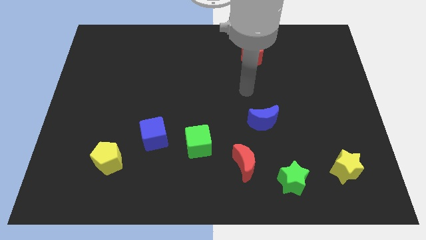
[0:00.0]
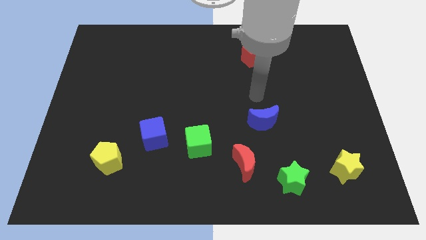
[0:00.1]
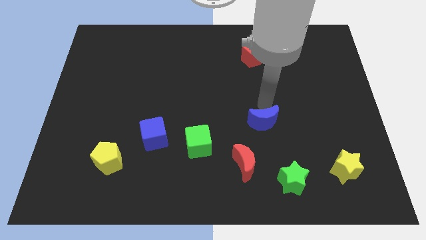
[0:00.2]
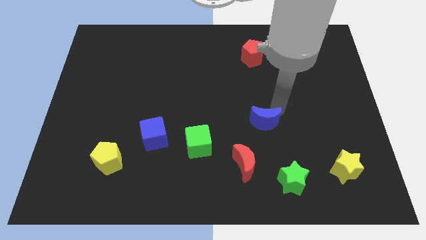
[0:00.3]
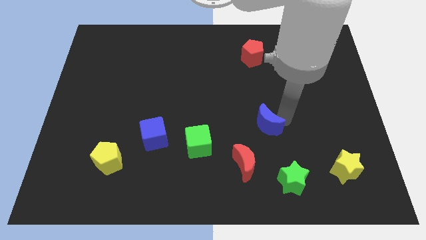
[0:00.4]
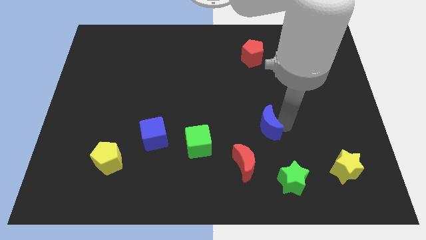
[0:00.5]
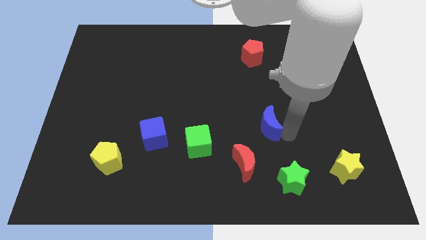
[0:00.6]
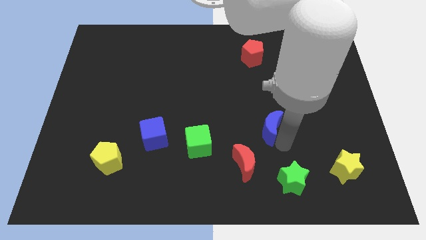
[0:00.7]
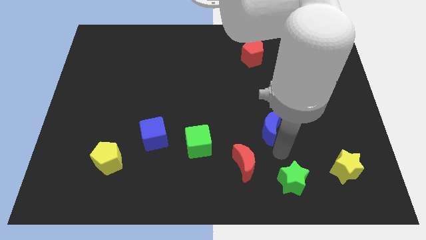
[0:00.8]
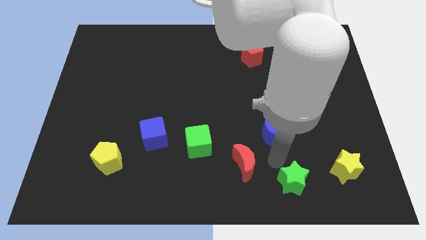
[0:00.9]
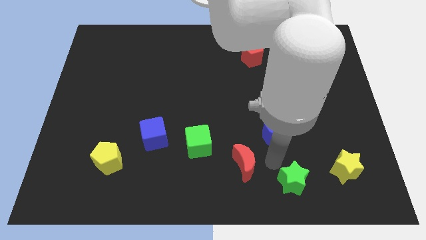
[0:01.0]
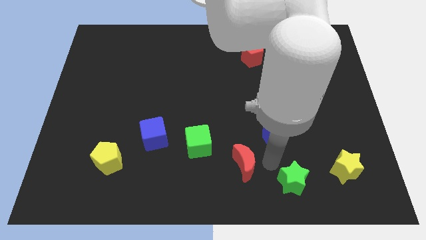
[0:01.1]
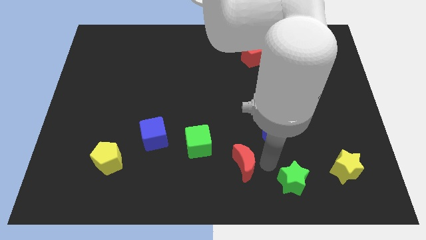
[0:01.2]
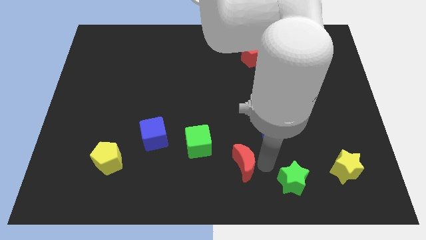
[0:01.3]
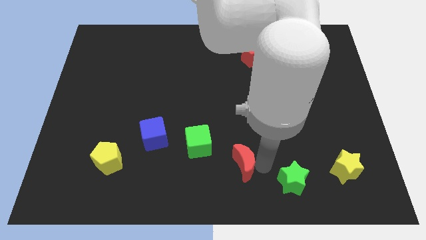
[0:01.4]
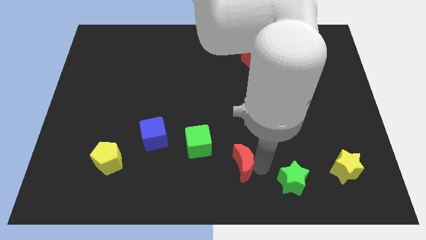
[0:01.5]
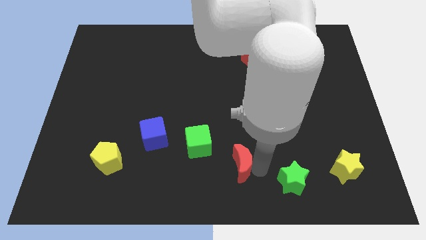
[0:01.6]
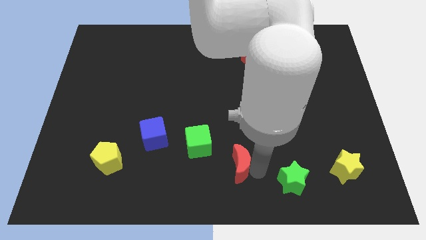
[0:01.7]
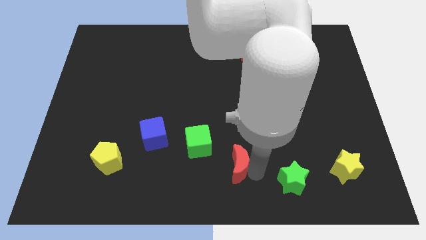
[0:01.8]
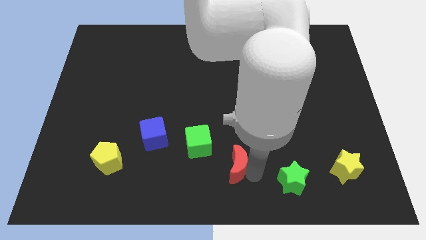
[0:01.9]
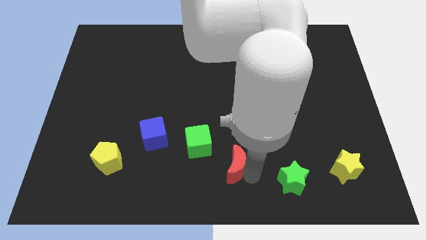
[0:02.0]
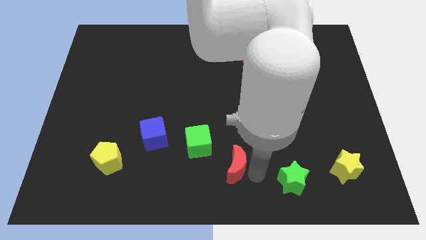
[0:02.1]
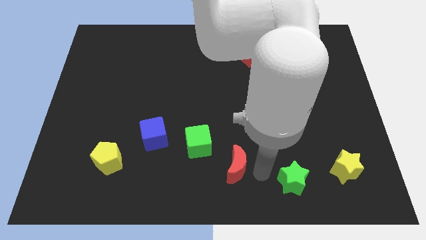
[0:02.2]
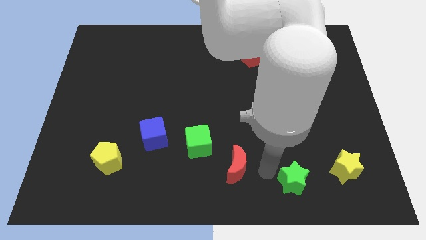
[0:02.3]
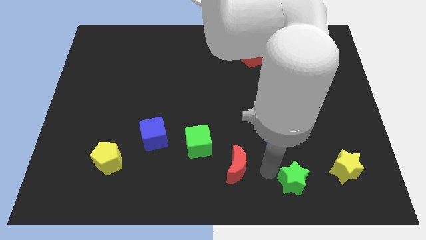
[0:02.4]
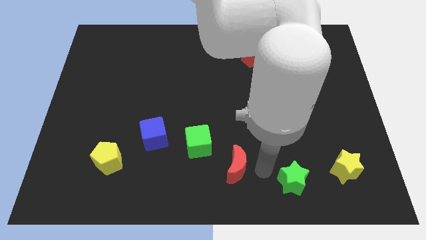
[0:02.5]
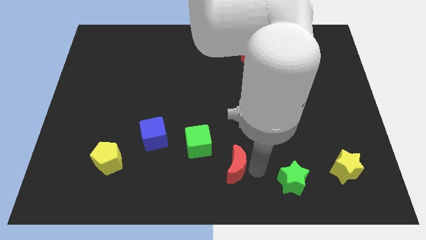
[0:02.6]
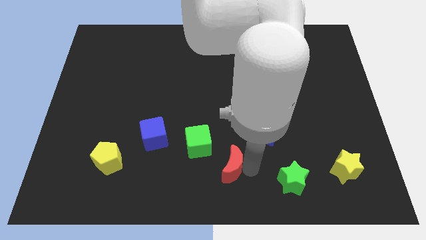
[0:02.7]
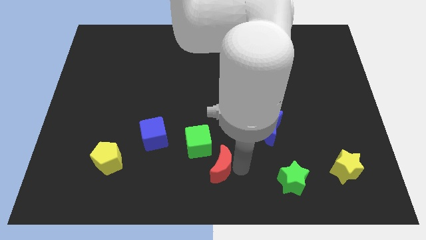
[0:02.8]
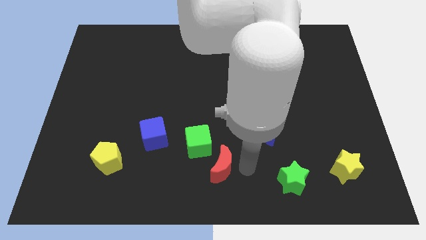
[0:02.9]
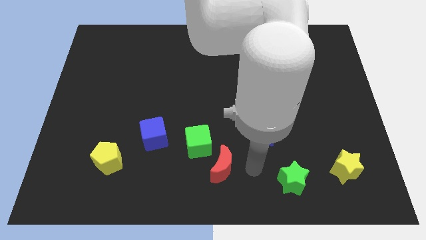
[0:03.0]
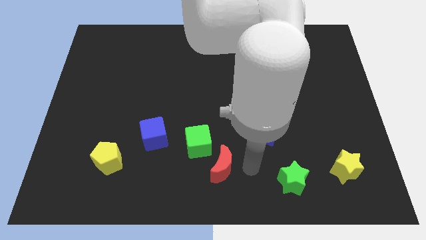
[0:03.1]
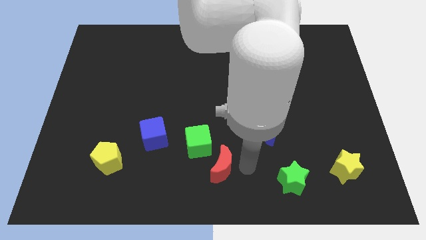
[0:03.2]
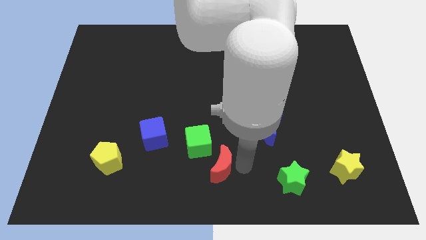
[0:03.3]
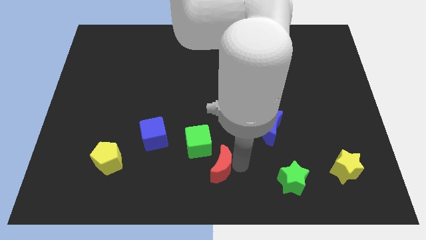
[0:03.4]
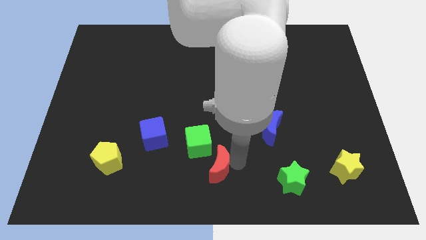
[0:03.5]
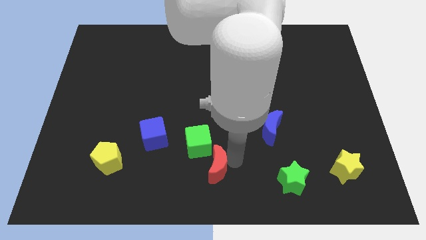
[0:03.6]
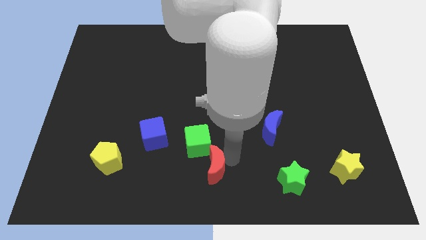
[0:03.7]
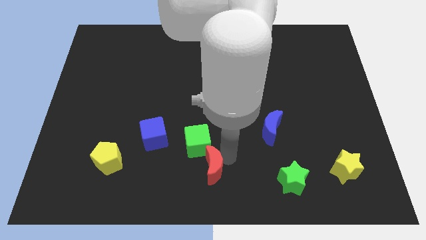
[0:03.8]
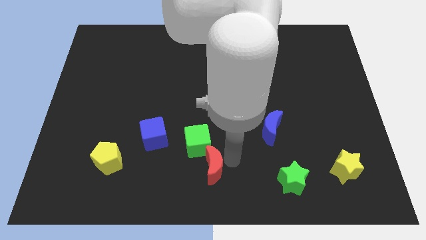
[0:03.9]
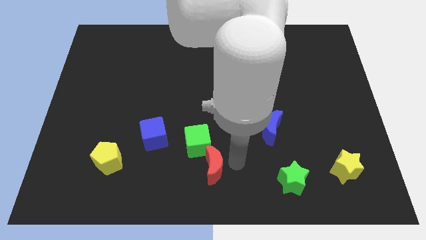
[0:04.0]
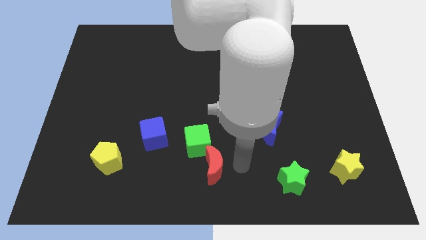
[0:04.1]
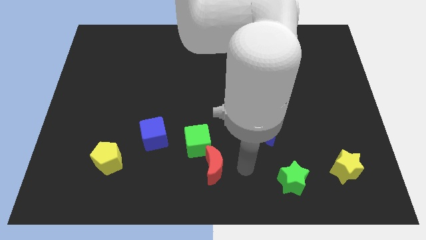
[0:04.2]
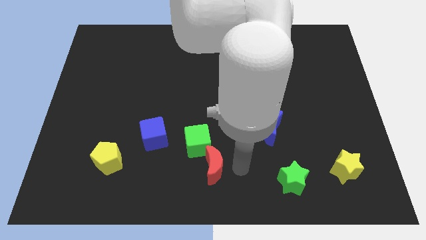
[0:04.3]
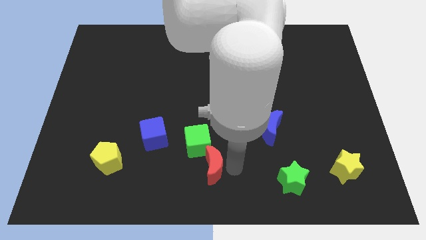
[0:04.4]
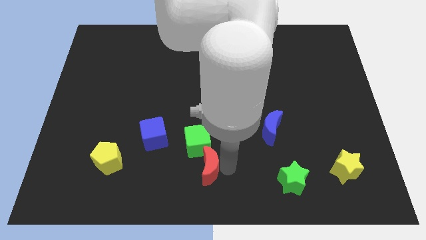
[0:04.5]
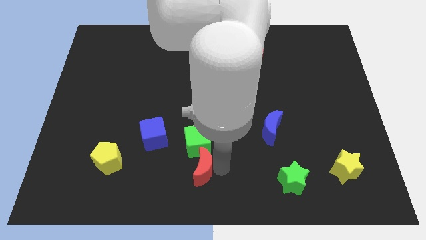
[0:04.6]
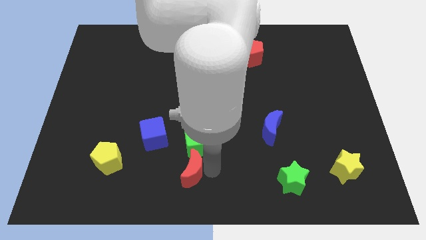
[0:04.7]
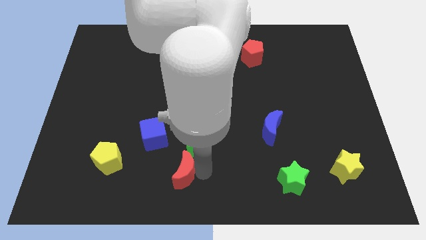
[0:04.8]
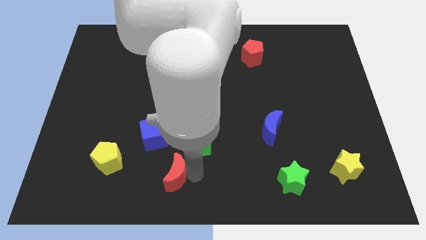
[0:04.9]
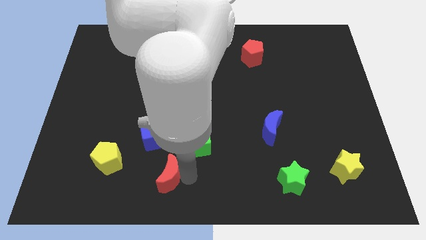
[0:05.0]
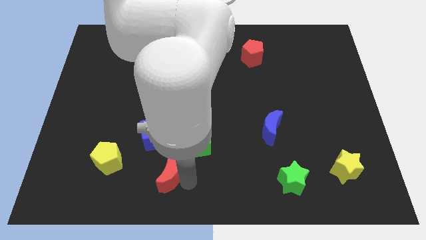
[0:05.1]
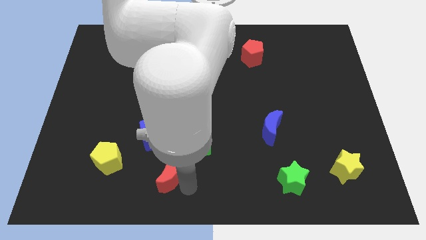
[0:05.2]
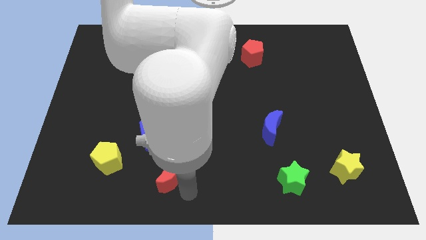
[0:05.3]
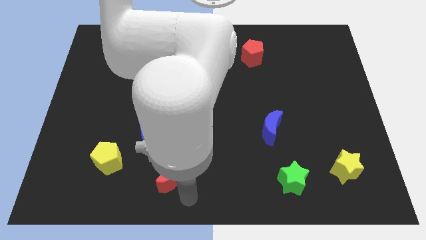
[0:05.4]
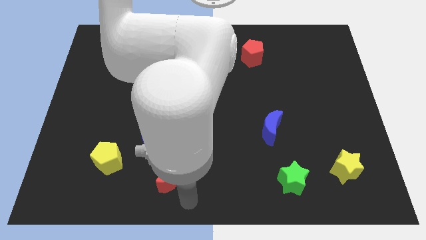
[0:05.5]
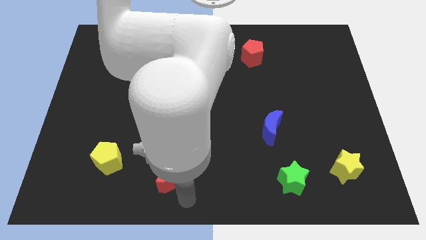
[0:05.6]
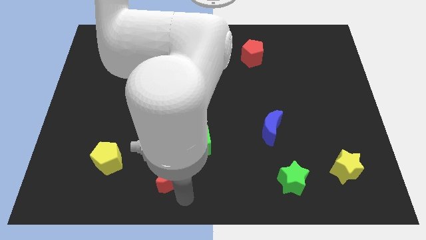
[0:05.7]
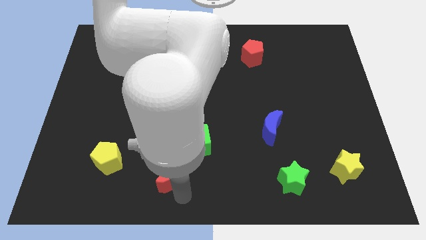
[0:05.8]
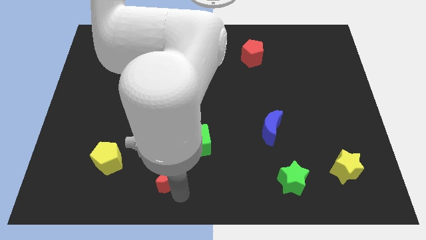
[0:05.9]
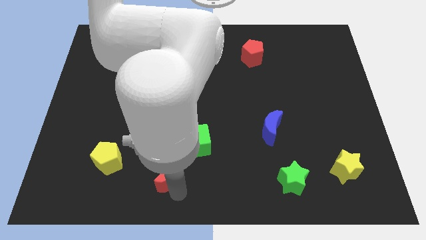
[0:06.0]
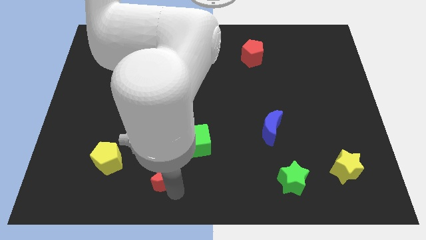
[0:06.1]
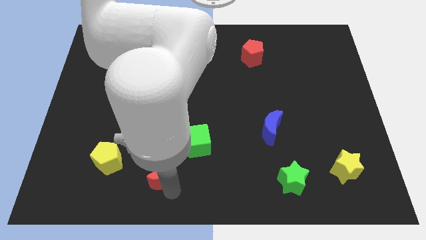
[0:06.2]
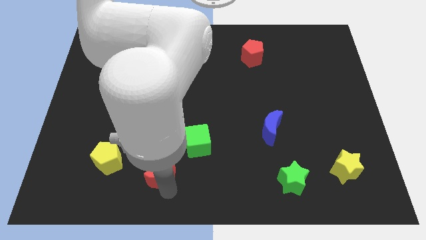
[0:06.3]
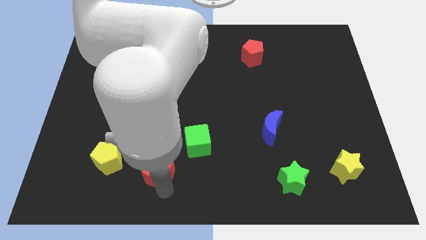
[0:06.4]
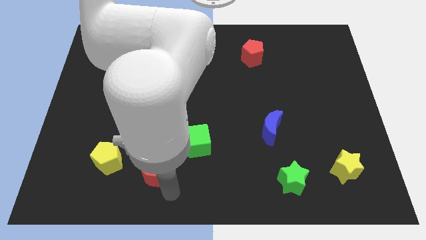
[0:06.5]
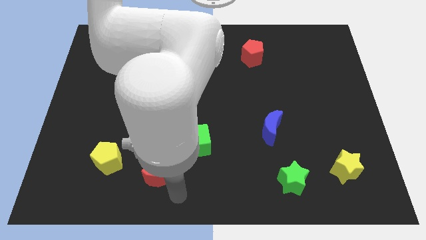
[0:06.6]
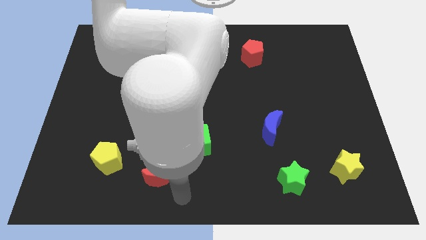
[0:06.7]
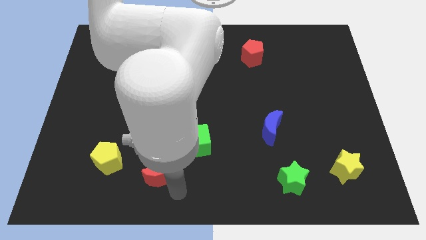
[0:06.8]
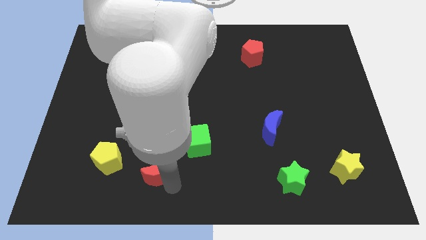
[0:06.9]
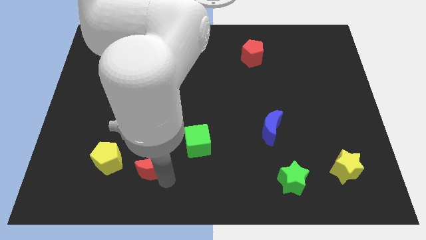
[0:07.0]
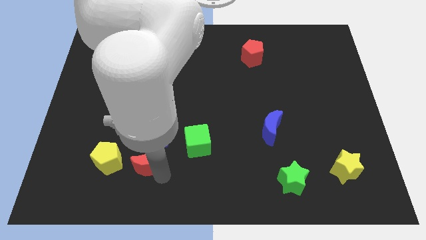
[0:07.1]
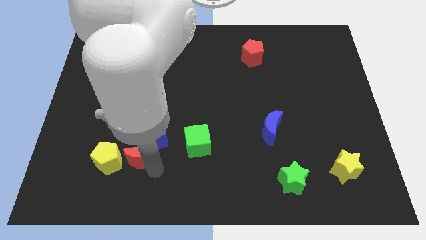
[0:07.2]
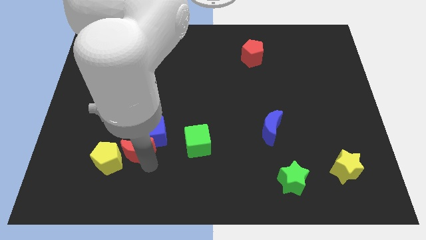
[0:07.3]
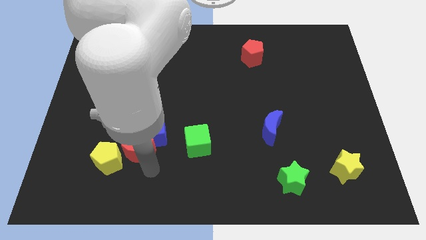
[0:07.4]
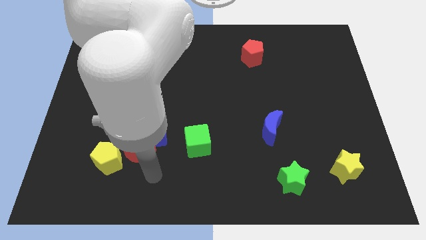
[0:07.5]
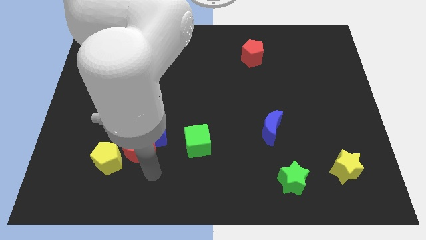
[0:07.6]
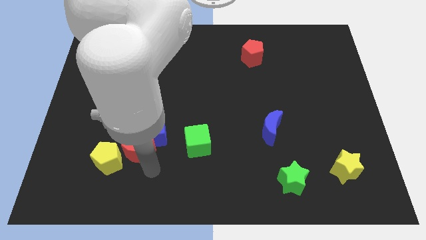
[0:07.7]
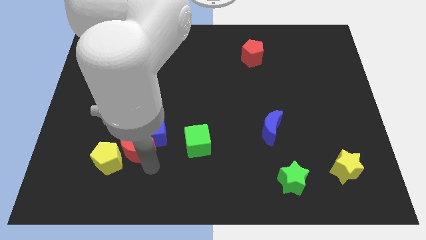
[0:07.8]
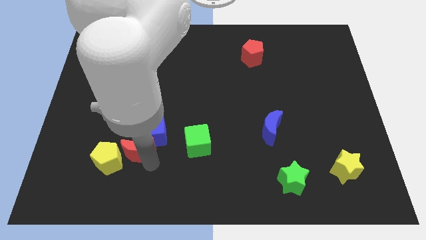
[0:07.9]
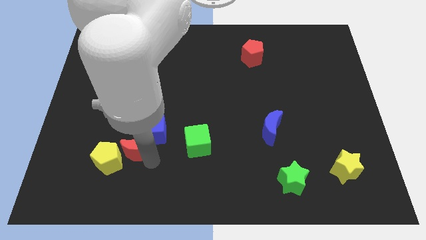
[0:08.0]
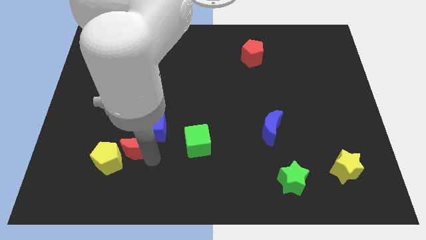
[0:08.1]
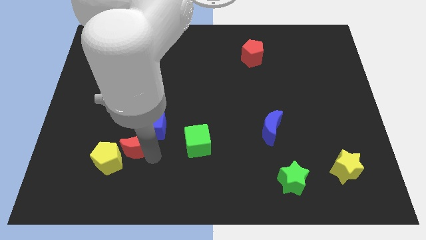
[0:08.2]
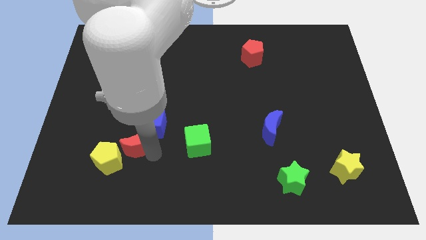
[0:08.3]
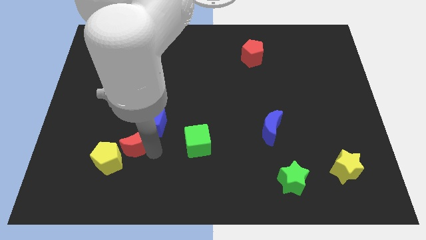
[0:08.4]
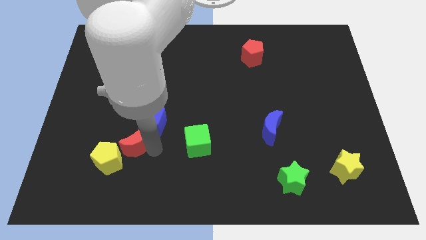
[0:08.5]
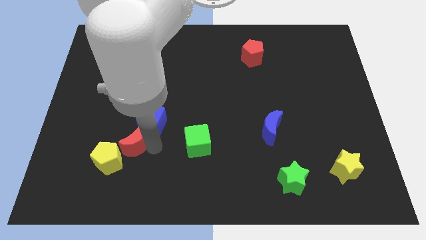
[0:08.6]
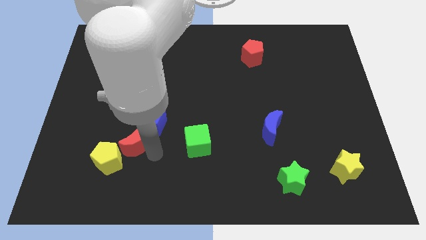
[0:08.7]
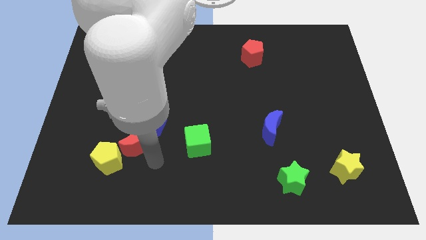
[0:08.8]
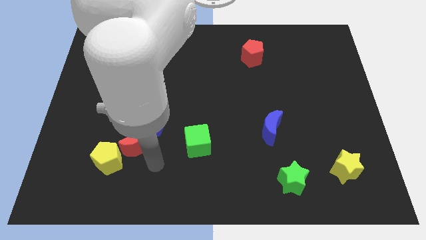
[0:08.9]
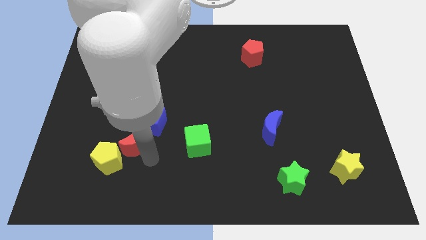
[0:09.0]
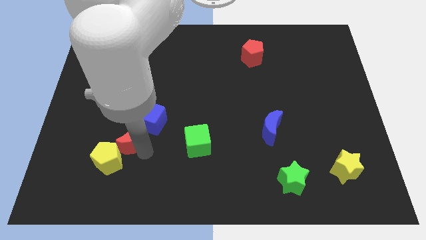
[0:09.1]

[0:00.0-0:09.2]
put the red moon to the top side of the yellow pentagon
